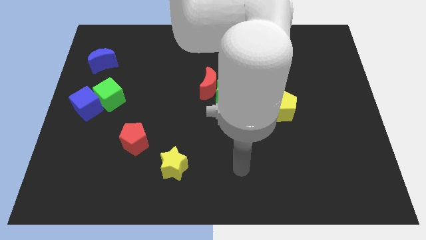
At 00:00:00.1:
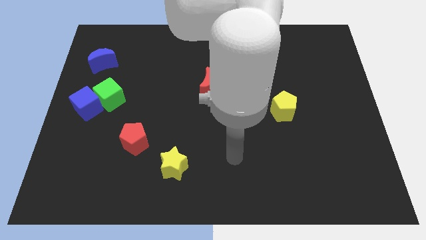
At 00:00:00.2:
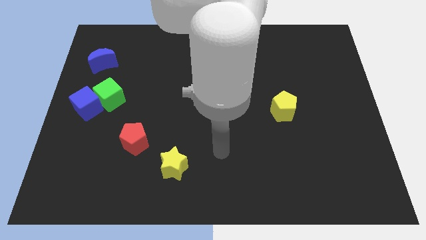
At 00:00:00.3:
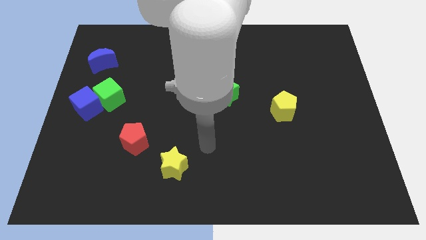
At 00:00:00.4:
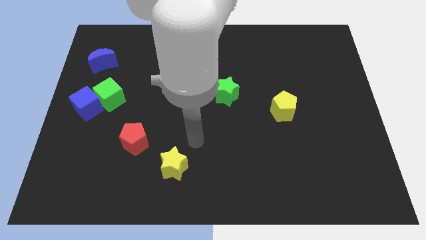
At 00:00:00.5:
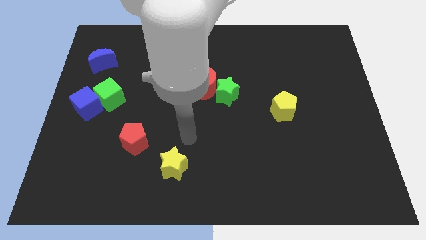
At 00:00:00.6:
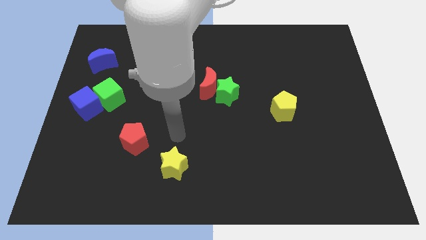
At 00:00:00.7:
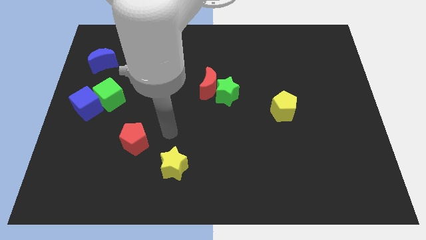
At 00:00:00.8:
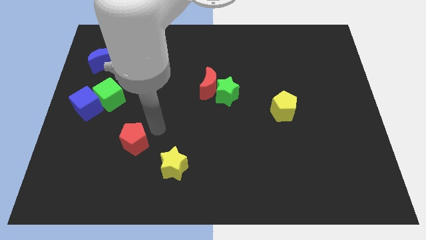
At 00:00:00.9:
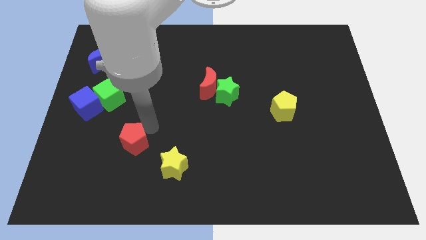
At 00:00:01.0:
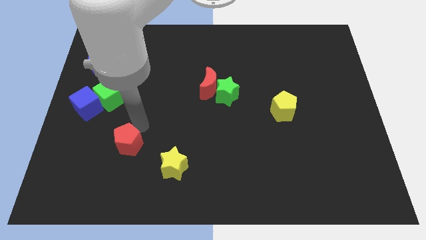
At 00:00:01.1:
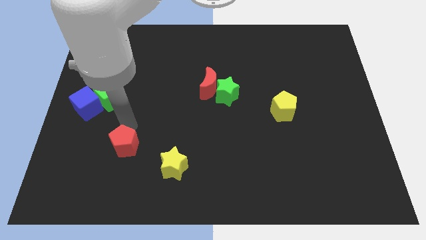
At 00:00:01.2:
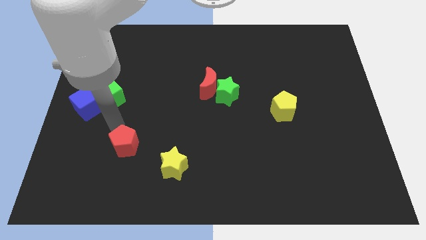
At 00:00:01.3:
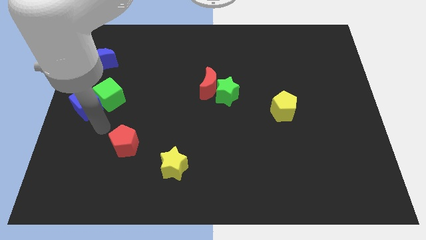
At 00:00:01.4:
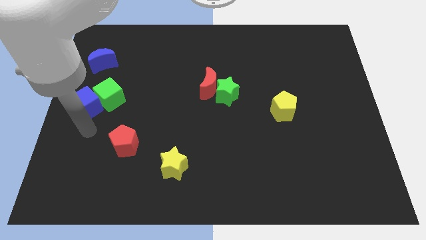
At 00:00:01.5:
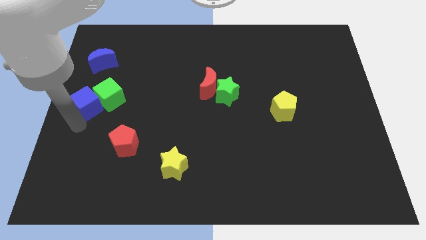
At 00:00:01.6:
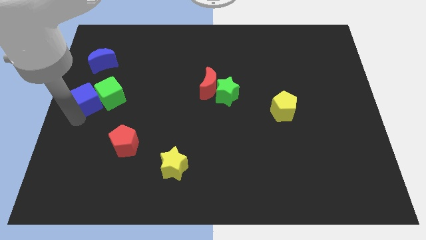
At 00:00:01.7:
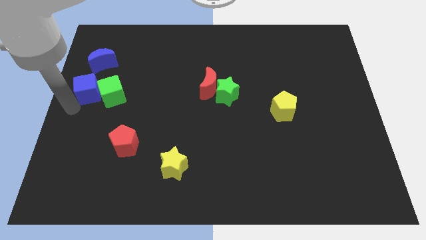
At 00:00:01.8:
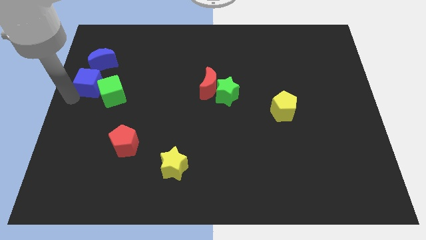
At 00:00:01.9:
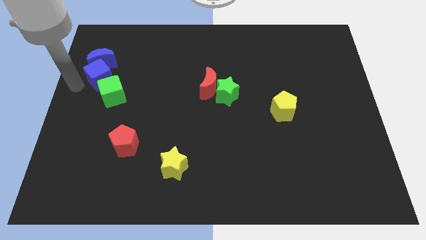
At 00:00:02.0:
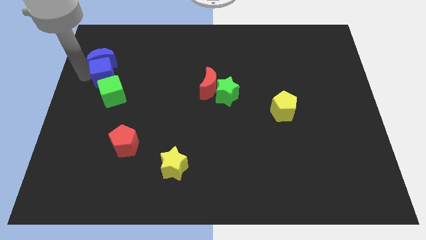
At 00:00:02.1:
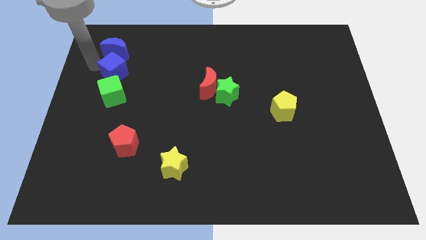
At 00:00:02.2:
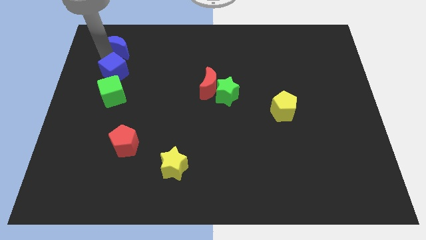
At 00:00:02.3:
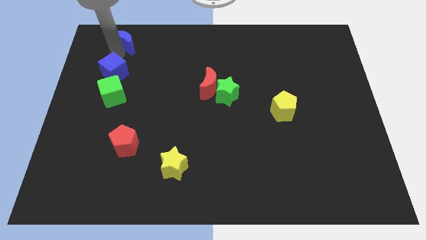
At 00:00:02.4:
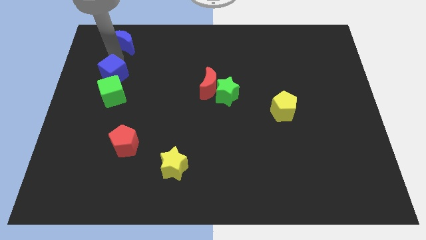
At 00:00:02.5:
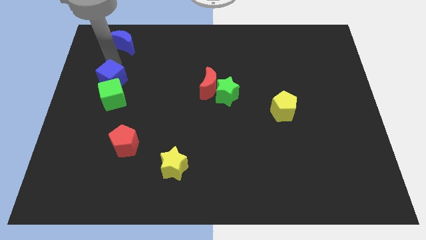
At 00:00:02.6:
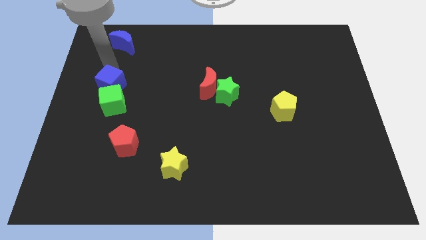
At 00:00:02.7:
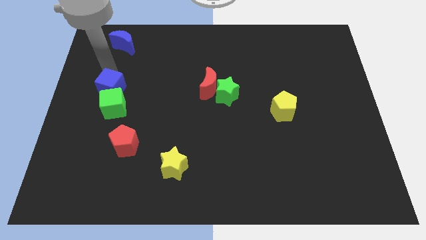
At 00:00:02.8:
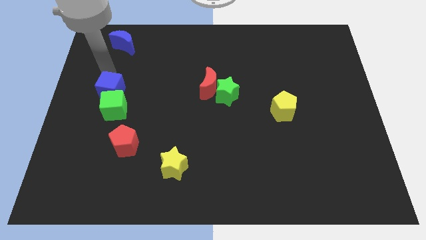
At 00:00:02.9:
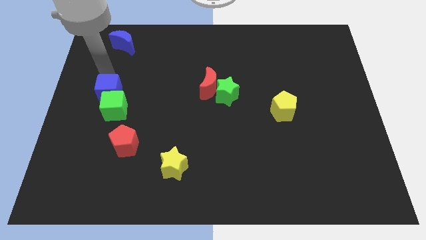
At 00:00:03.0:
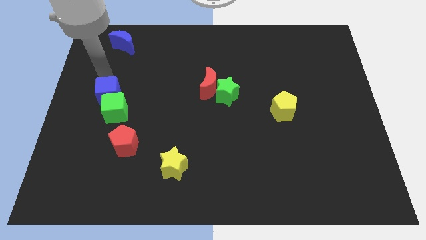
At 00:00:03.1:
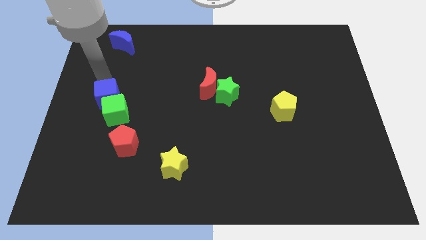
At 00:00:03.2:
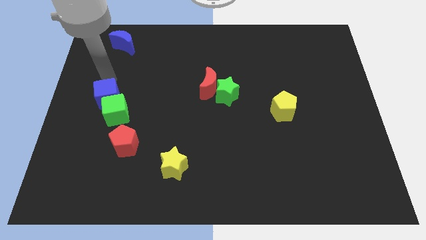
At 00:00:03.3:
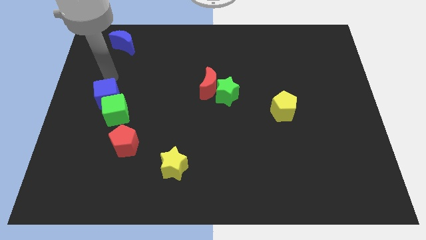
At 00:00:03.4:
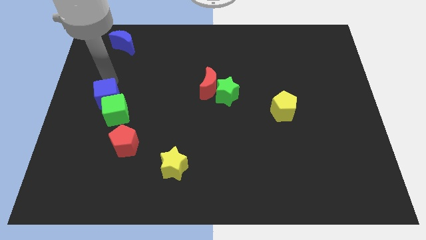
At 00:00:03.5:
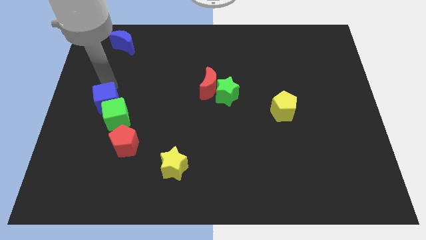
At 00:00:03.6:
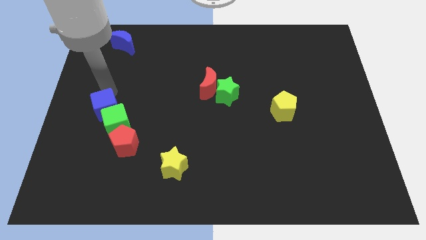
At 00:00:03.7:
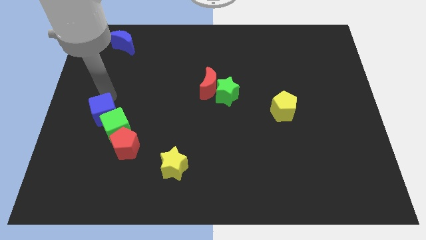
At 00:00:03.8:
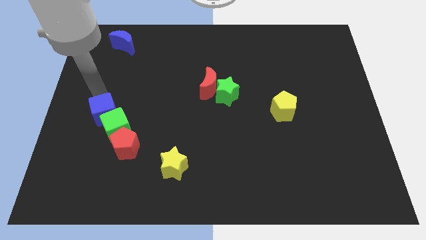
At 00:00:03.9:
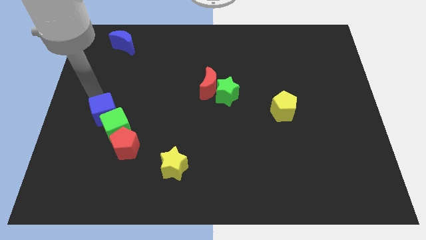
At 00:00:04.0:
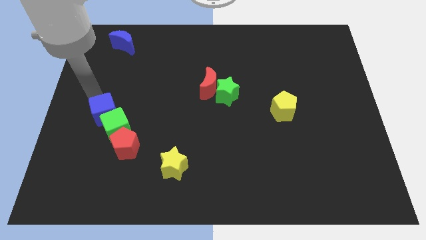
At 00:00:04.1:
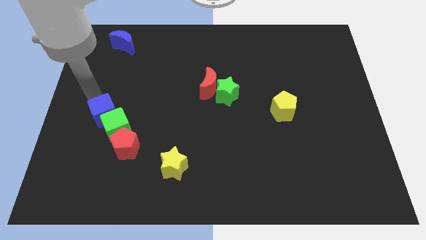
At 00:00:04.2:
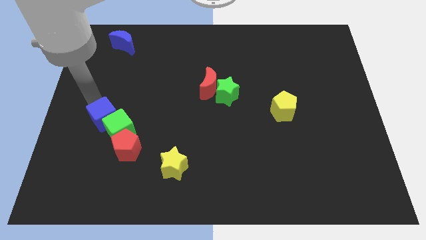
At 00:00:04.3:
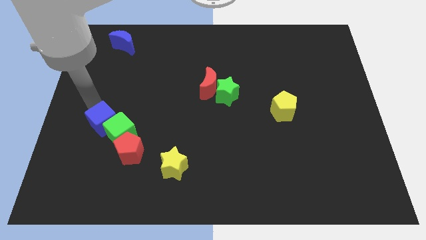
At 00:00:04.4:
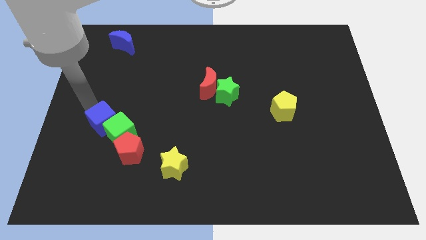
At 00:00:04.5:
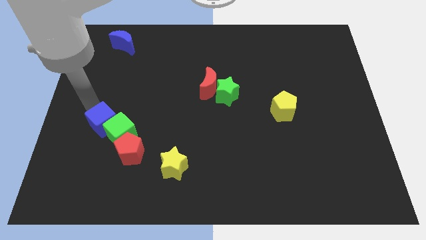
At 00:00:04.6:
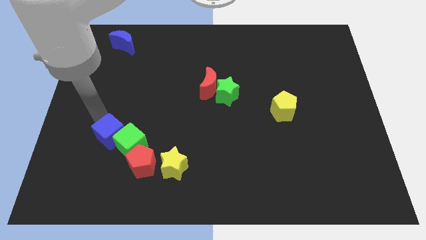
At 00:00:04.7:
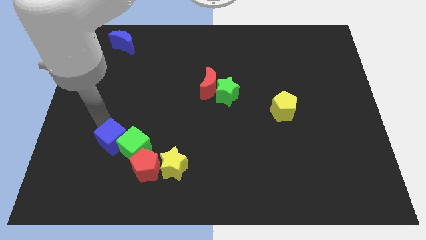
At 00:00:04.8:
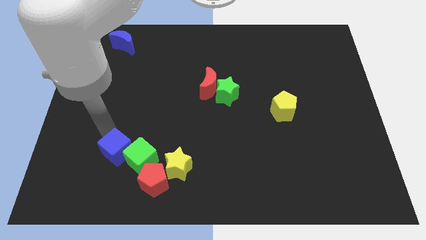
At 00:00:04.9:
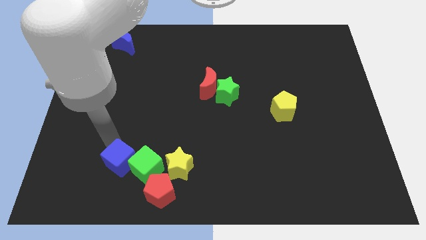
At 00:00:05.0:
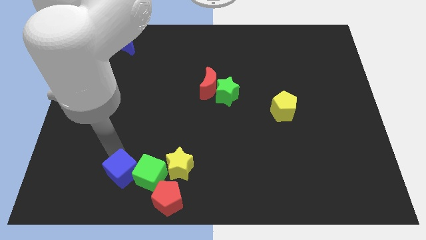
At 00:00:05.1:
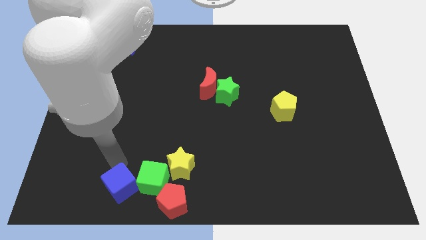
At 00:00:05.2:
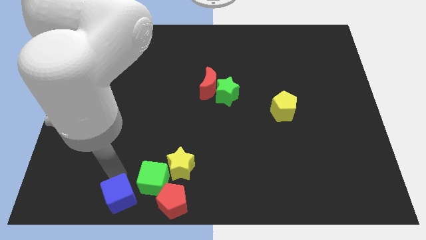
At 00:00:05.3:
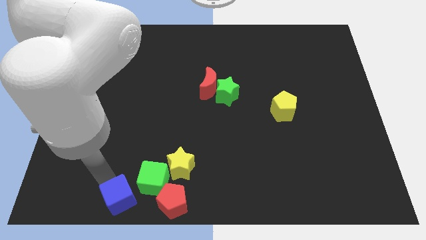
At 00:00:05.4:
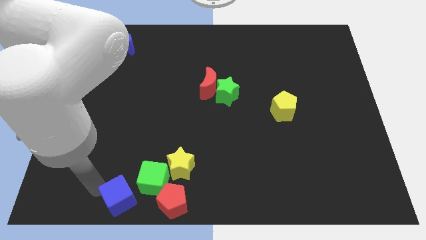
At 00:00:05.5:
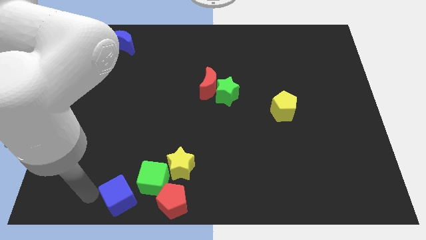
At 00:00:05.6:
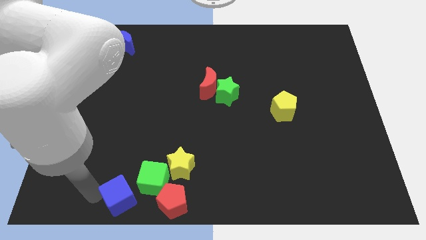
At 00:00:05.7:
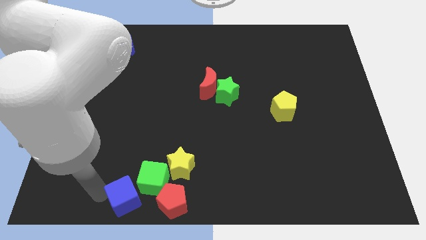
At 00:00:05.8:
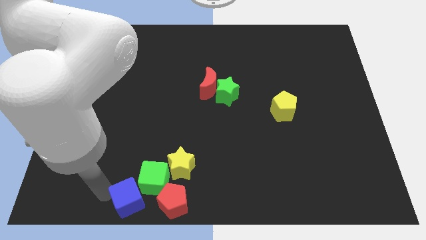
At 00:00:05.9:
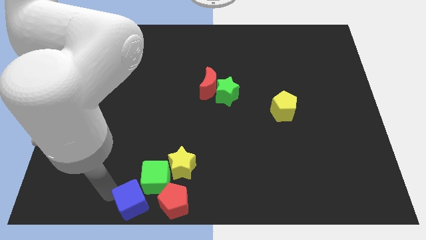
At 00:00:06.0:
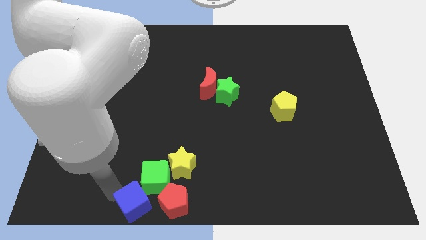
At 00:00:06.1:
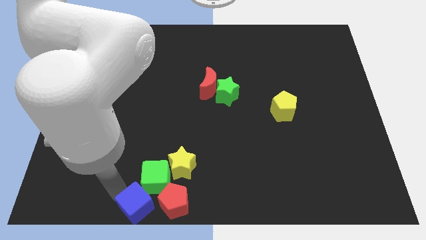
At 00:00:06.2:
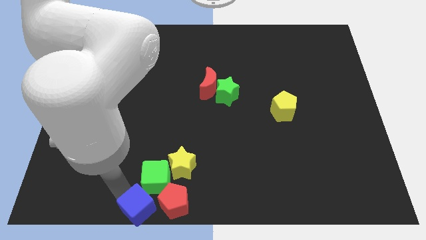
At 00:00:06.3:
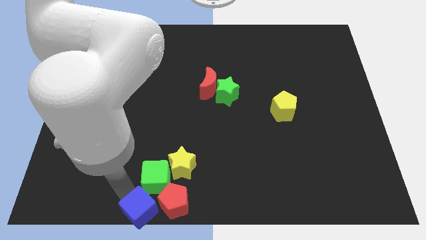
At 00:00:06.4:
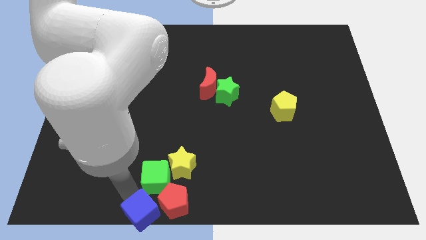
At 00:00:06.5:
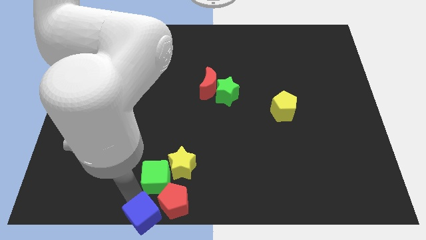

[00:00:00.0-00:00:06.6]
push the blue cube towards the red pentagon

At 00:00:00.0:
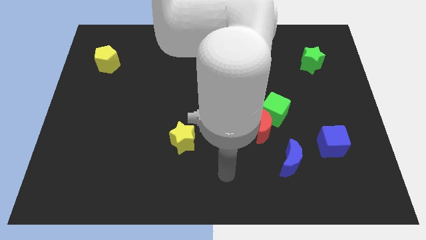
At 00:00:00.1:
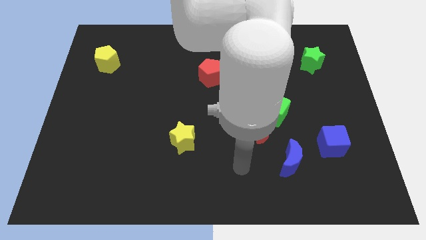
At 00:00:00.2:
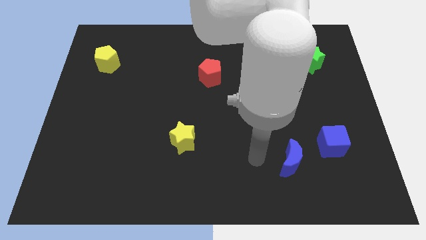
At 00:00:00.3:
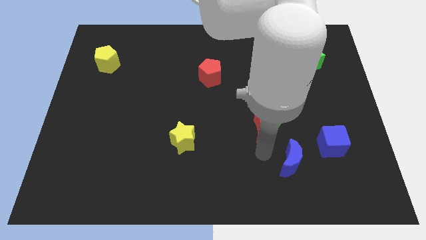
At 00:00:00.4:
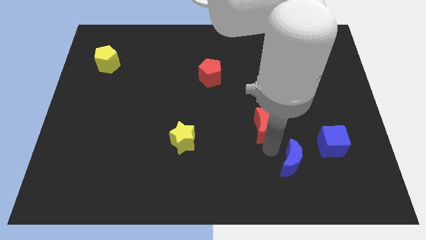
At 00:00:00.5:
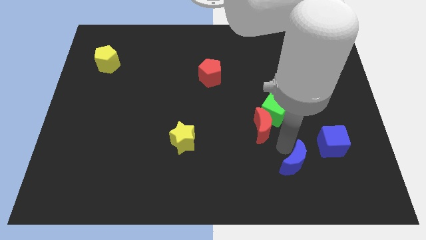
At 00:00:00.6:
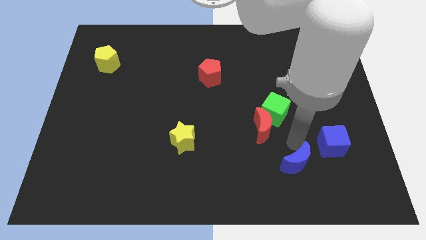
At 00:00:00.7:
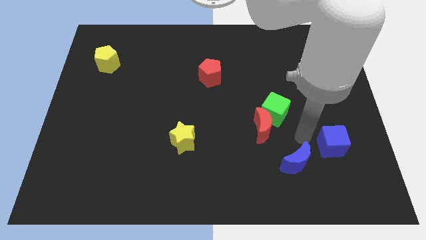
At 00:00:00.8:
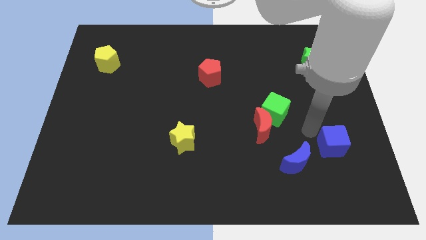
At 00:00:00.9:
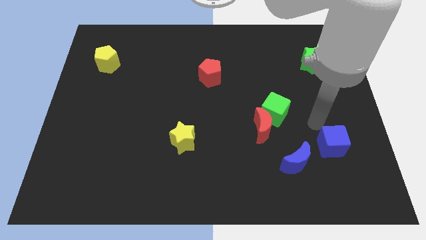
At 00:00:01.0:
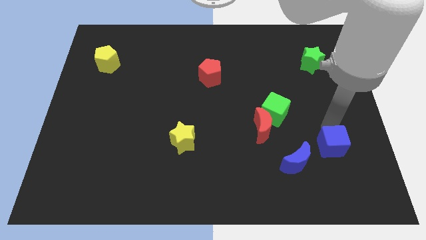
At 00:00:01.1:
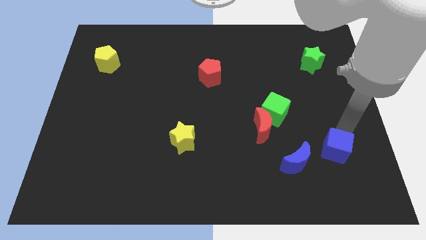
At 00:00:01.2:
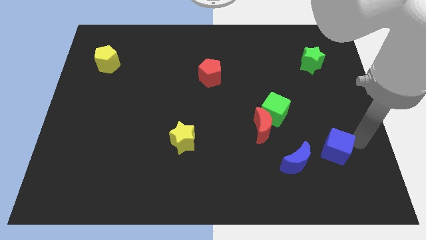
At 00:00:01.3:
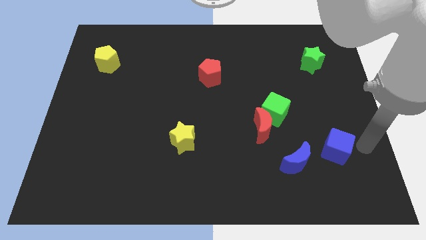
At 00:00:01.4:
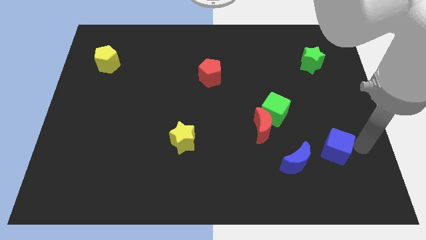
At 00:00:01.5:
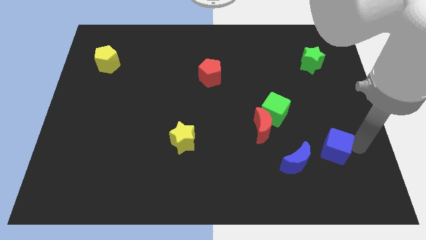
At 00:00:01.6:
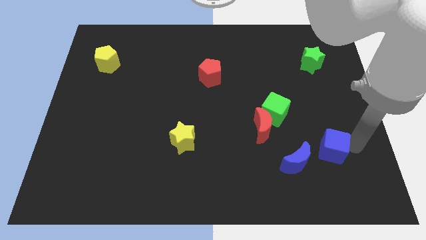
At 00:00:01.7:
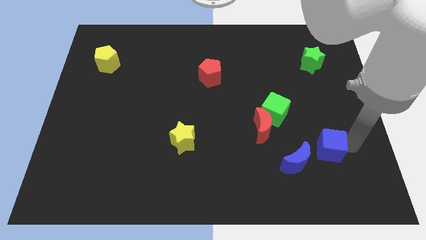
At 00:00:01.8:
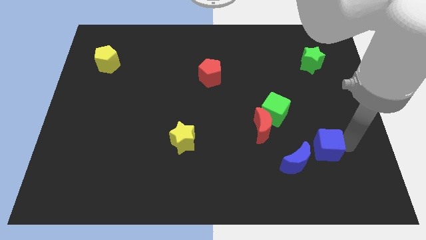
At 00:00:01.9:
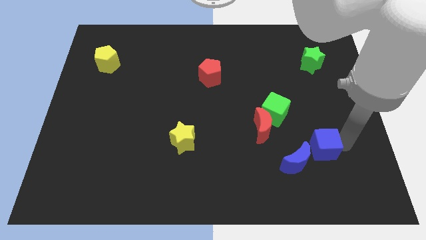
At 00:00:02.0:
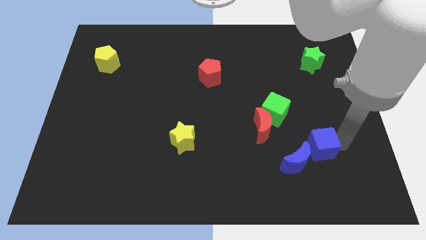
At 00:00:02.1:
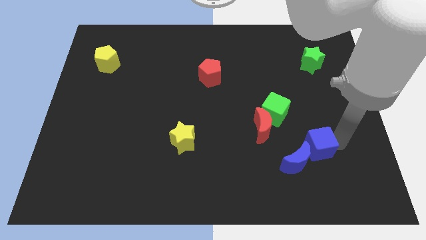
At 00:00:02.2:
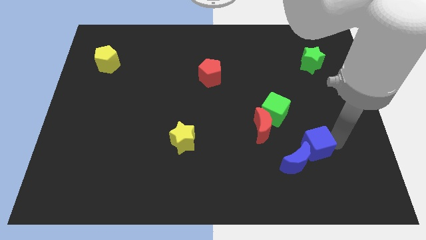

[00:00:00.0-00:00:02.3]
put the blue cube close to the blue moon
